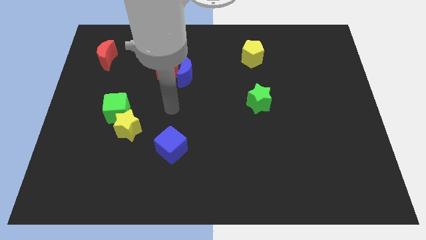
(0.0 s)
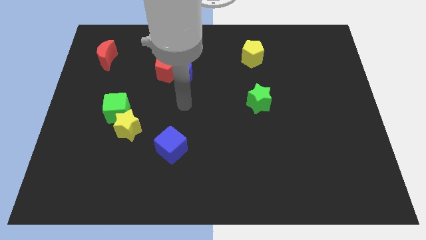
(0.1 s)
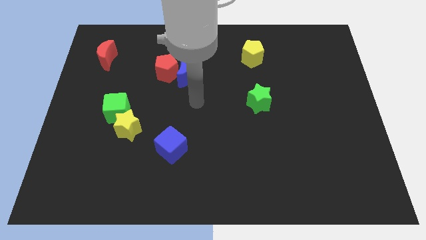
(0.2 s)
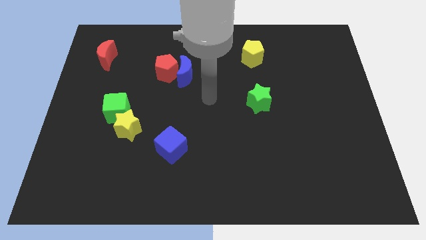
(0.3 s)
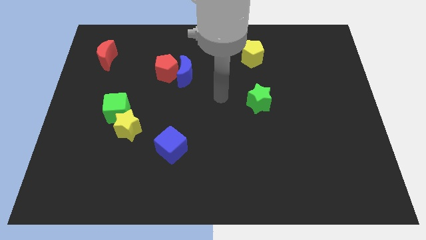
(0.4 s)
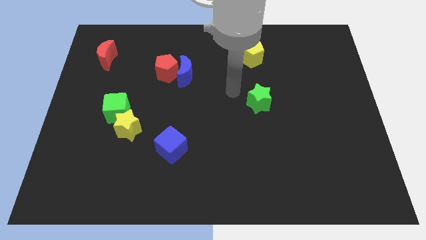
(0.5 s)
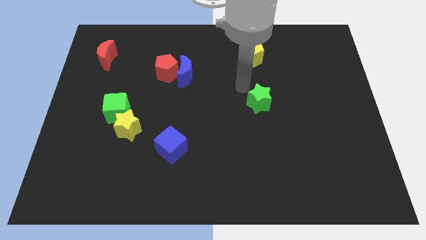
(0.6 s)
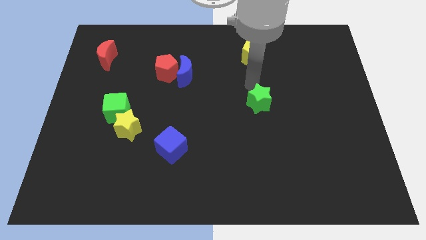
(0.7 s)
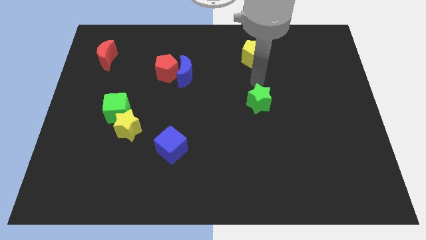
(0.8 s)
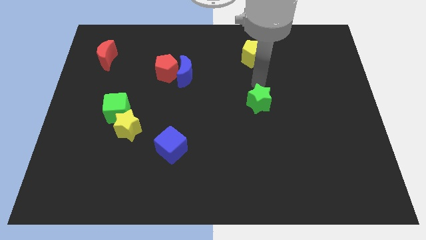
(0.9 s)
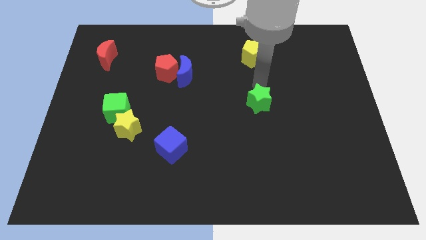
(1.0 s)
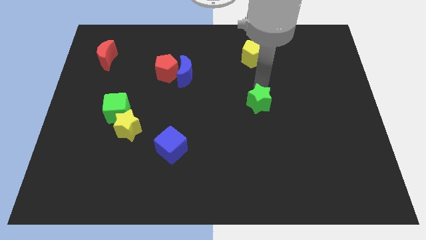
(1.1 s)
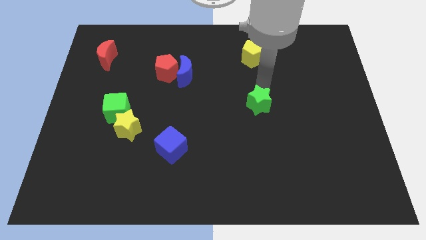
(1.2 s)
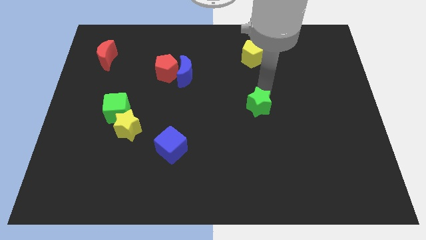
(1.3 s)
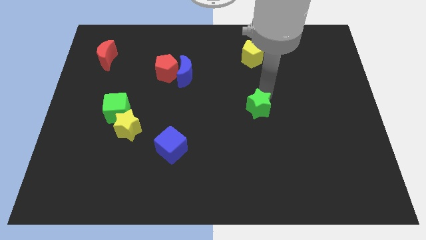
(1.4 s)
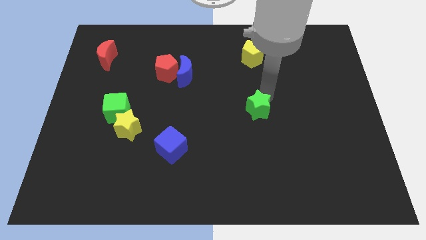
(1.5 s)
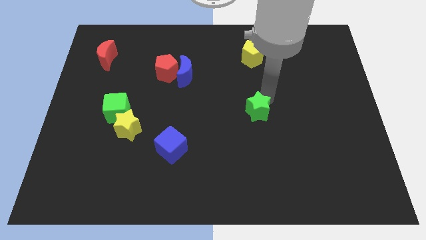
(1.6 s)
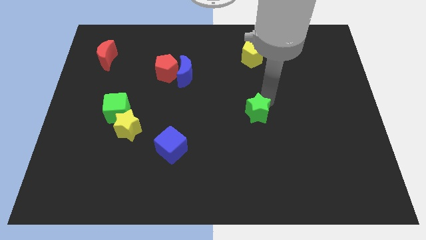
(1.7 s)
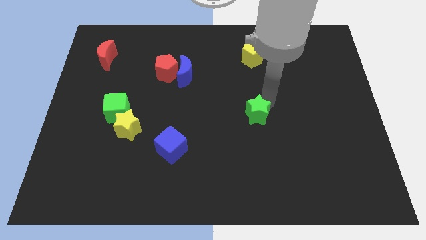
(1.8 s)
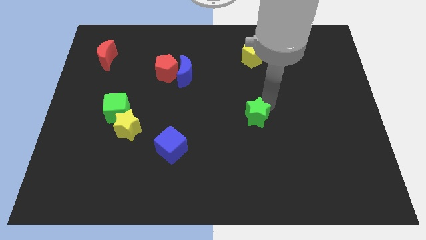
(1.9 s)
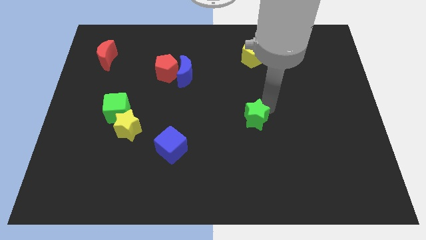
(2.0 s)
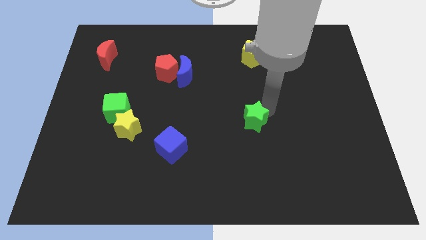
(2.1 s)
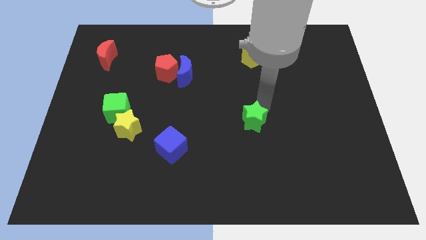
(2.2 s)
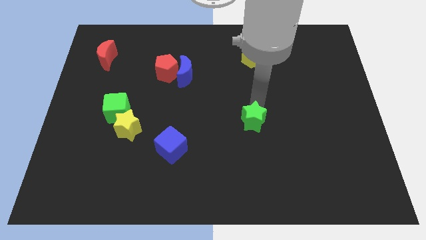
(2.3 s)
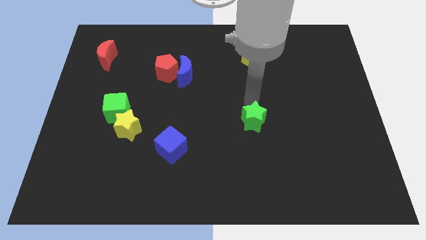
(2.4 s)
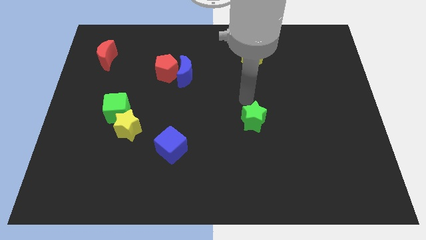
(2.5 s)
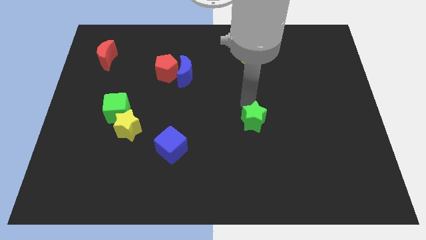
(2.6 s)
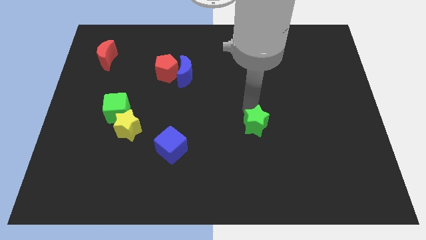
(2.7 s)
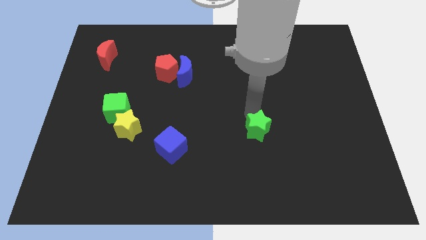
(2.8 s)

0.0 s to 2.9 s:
move the green star down a little bit

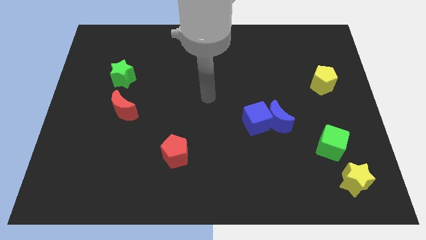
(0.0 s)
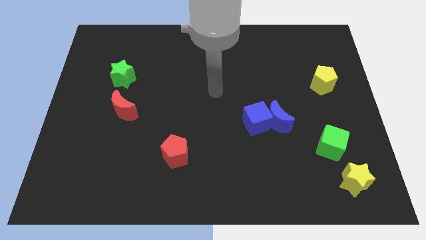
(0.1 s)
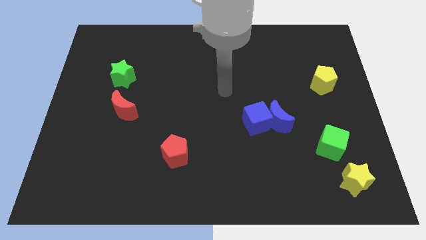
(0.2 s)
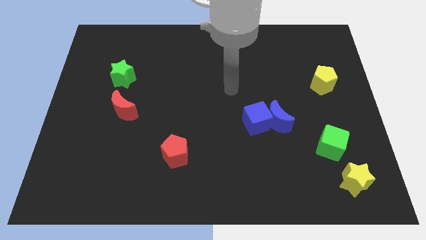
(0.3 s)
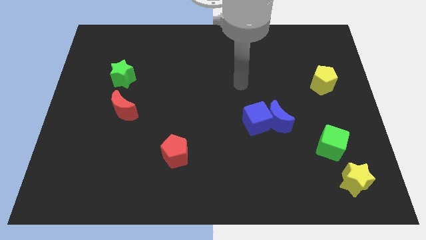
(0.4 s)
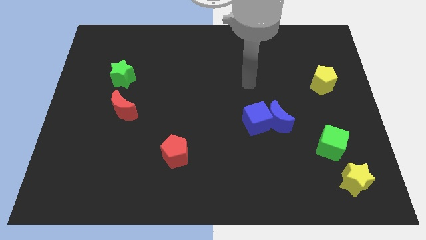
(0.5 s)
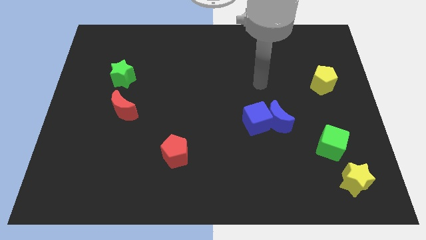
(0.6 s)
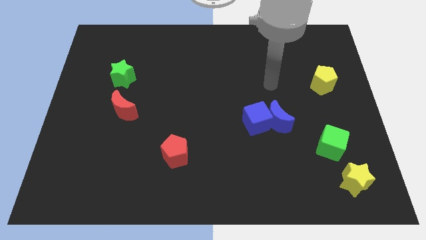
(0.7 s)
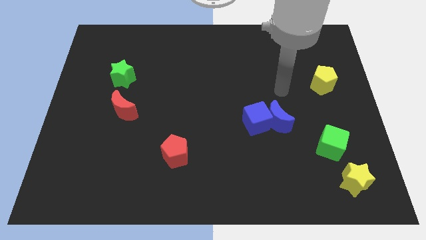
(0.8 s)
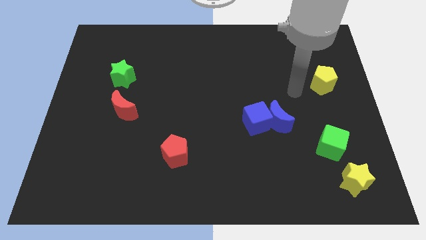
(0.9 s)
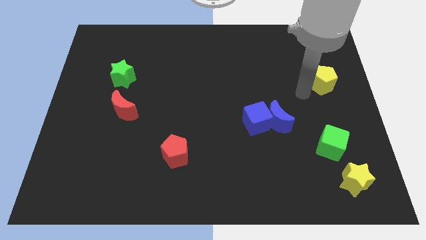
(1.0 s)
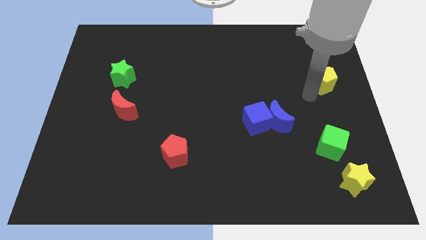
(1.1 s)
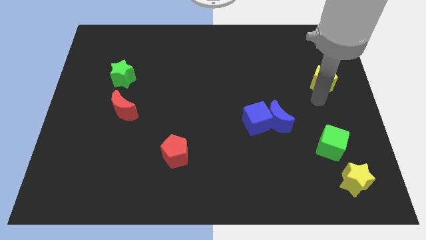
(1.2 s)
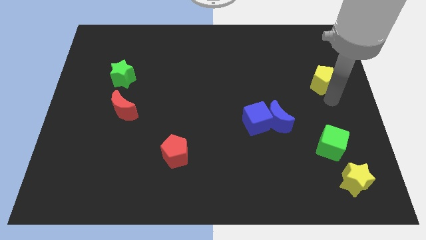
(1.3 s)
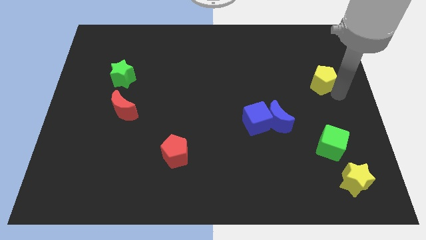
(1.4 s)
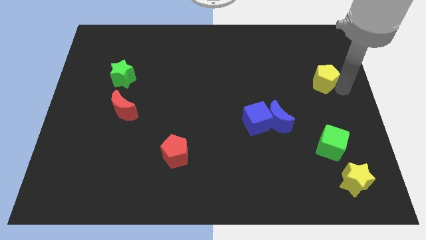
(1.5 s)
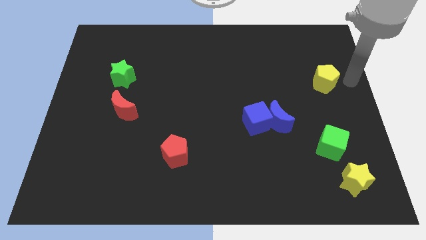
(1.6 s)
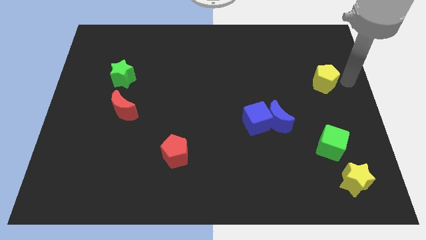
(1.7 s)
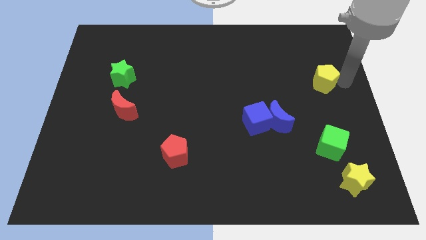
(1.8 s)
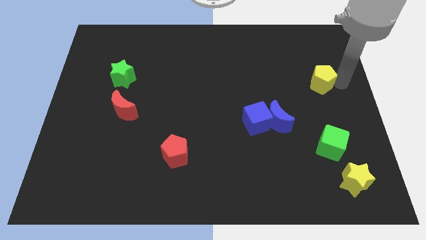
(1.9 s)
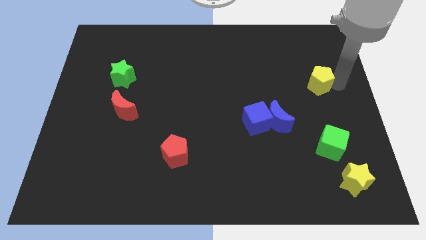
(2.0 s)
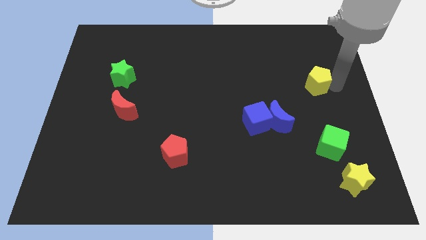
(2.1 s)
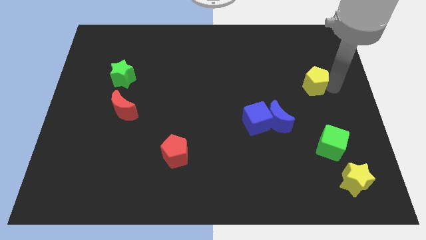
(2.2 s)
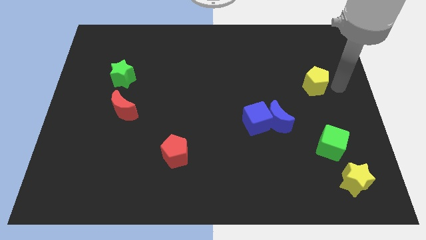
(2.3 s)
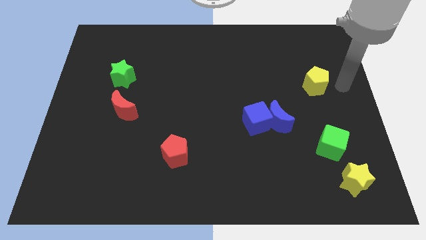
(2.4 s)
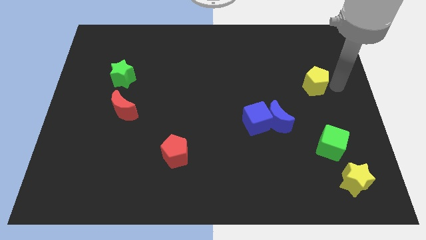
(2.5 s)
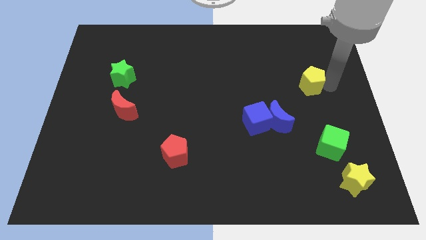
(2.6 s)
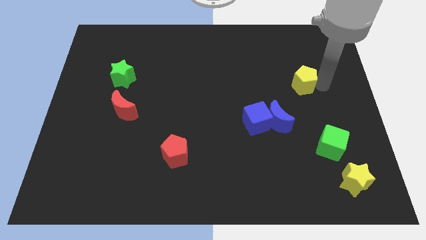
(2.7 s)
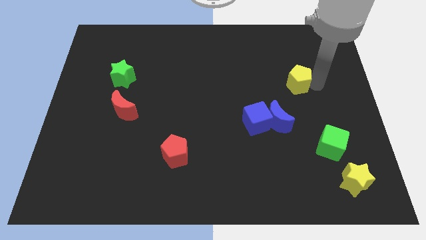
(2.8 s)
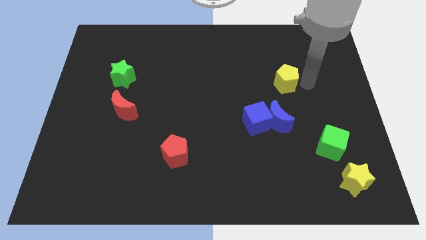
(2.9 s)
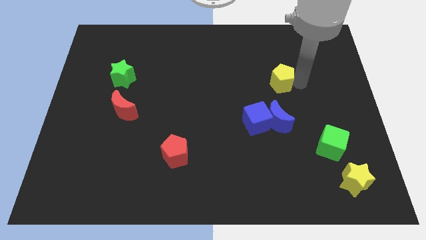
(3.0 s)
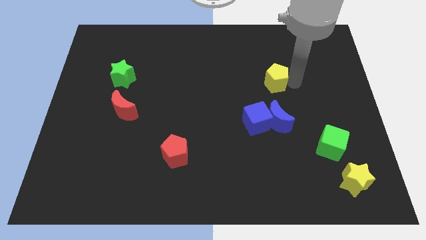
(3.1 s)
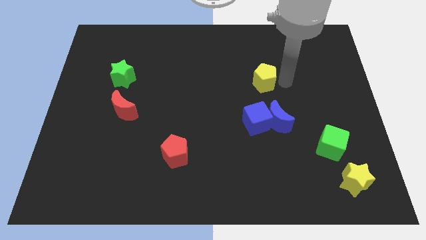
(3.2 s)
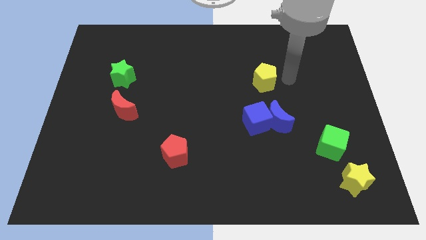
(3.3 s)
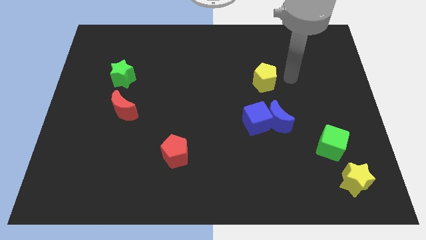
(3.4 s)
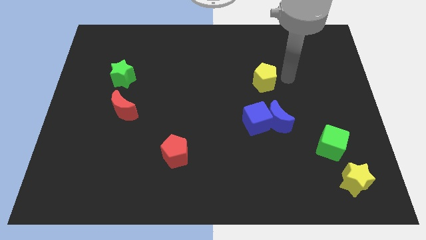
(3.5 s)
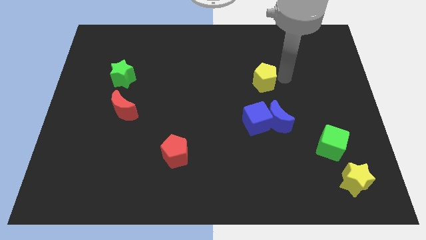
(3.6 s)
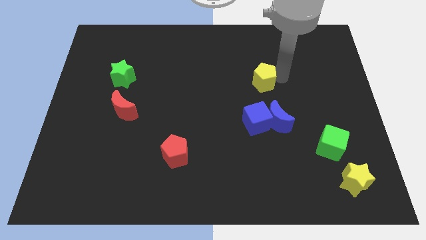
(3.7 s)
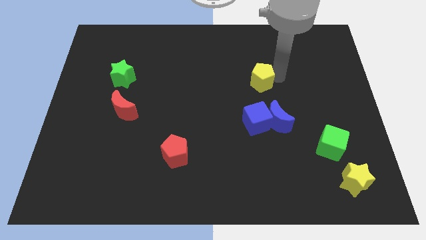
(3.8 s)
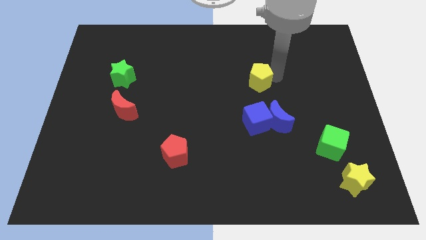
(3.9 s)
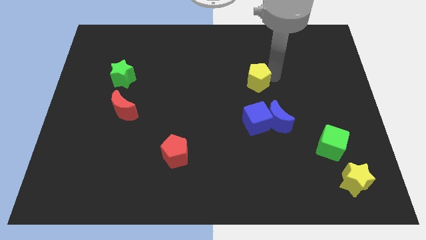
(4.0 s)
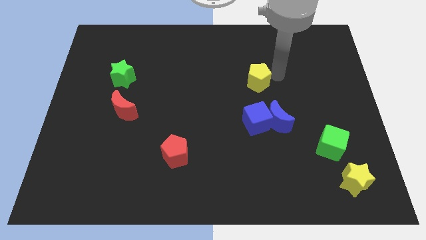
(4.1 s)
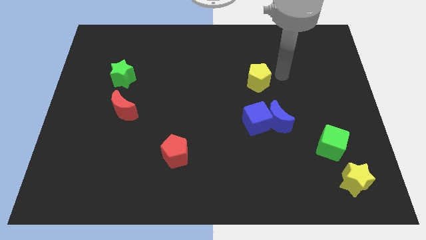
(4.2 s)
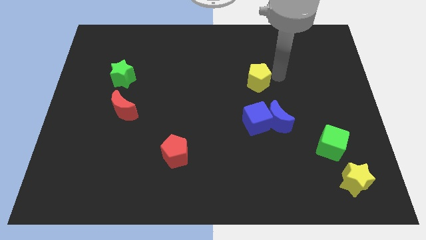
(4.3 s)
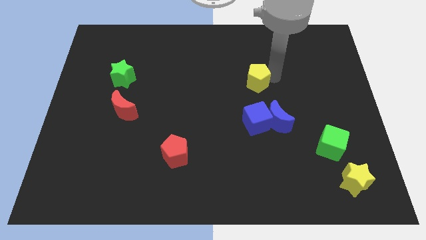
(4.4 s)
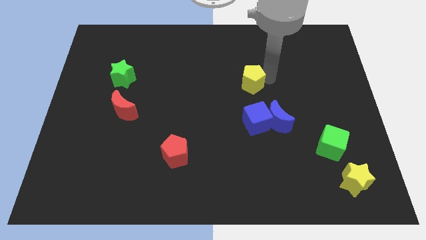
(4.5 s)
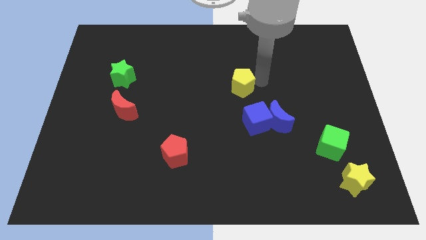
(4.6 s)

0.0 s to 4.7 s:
slide the yellow pentagon left

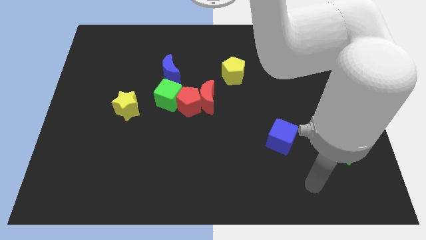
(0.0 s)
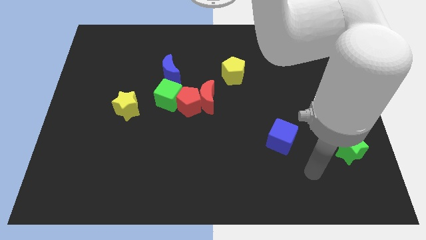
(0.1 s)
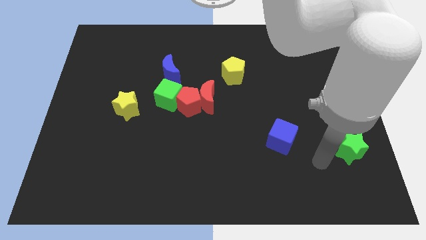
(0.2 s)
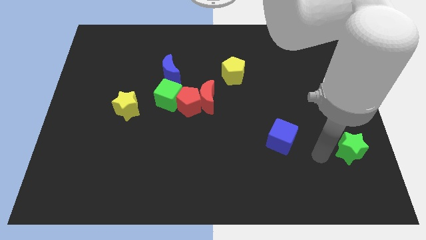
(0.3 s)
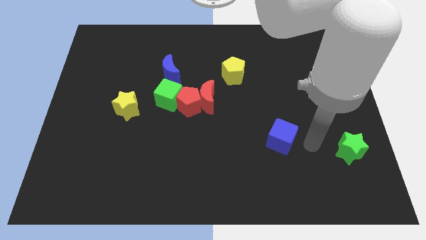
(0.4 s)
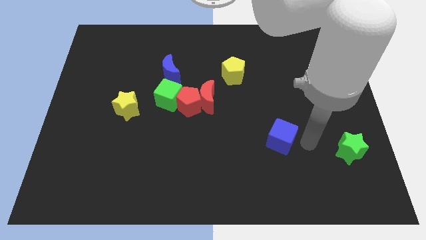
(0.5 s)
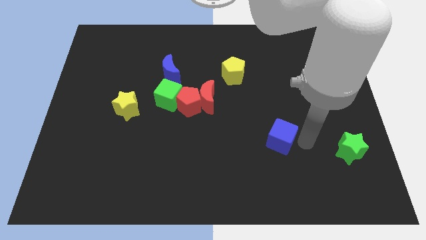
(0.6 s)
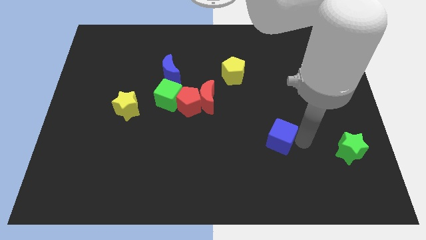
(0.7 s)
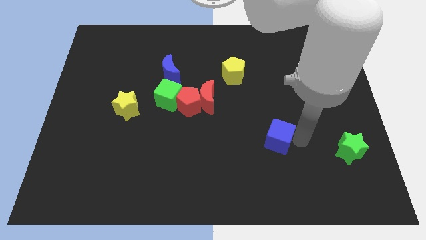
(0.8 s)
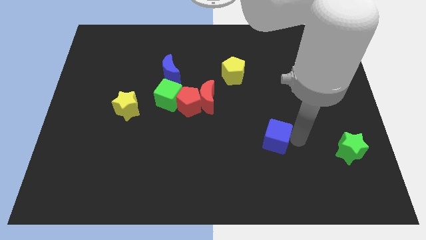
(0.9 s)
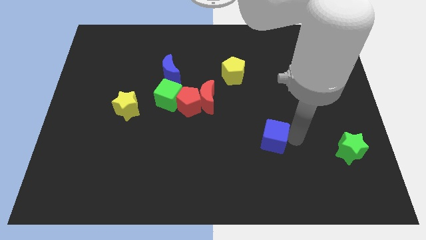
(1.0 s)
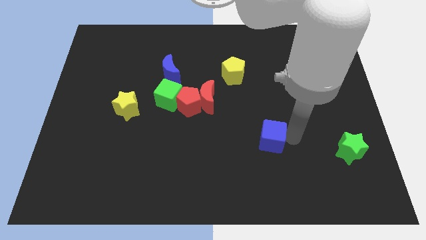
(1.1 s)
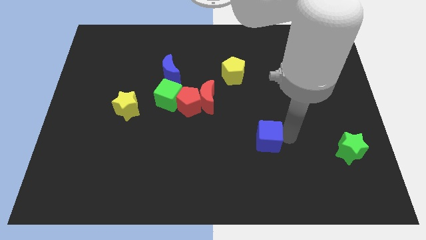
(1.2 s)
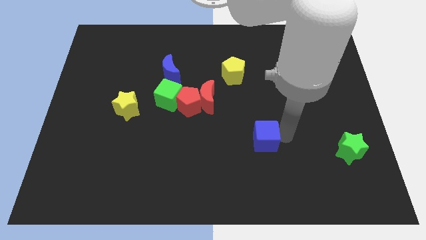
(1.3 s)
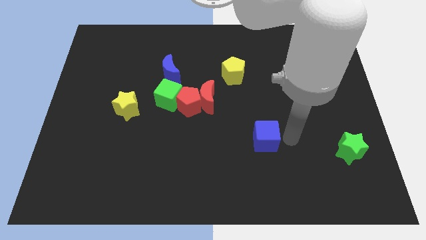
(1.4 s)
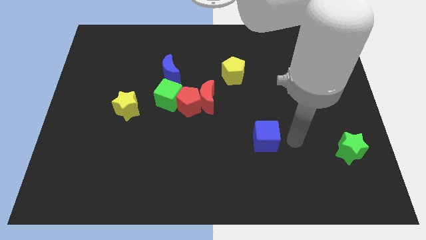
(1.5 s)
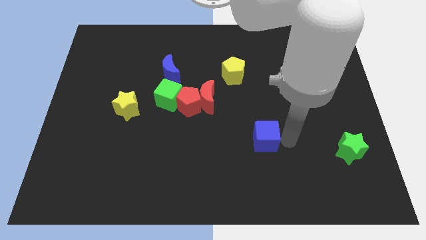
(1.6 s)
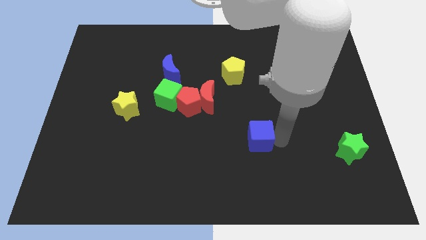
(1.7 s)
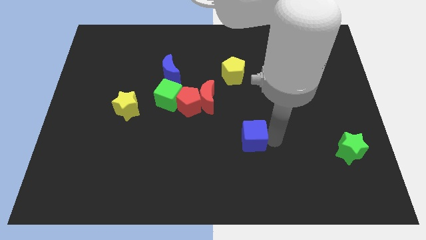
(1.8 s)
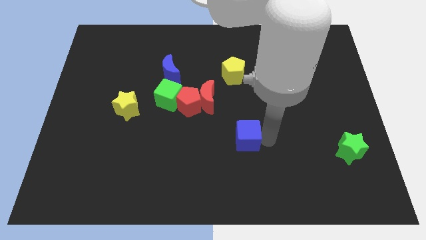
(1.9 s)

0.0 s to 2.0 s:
slightly move the blue cube left
